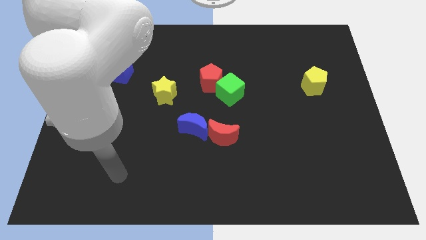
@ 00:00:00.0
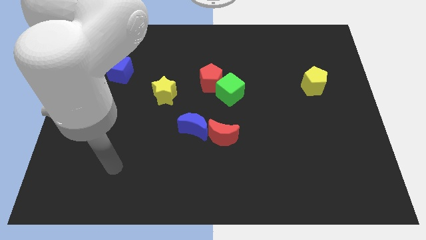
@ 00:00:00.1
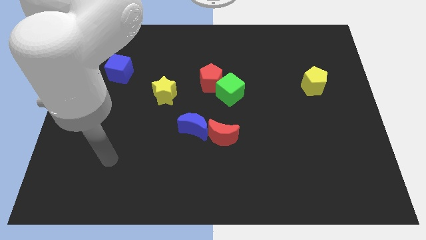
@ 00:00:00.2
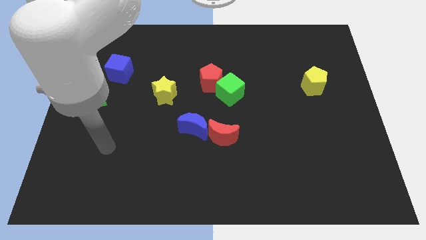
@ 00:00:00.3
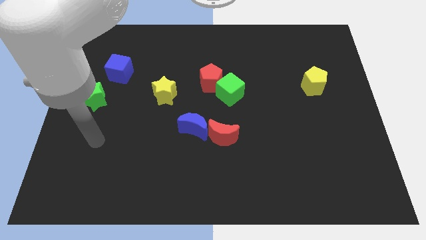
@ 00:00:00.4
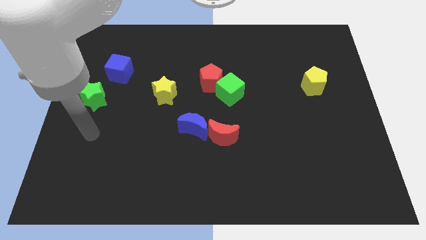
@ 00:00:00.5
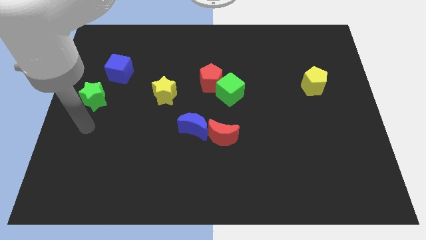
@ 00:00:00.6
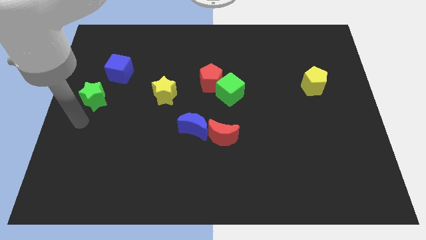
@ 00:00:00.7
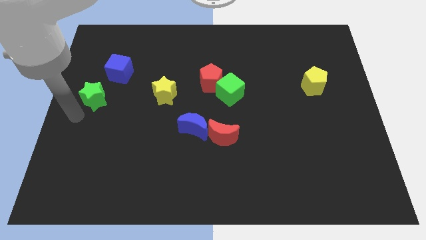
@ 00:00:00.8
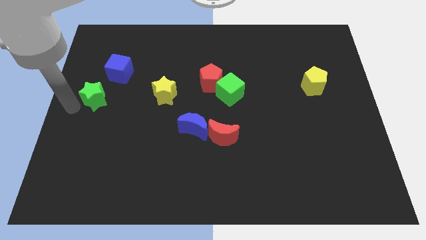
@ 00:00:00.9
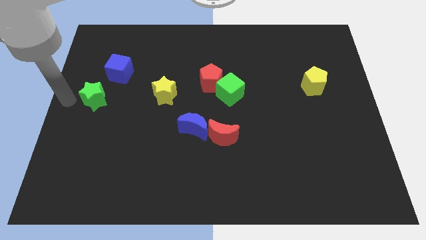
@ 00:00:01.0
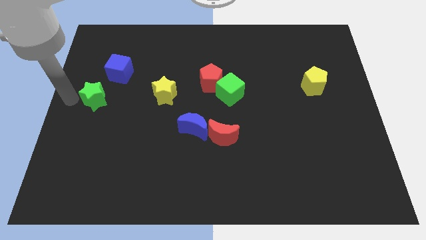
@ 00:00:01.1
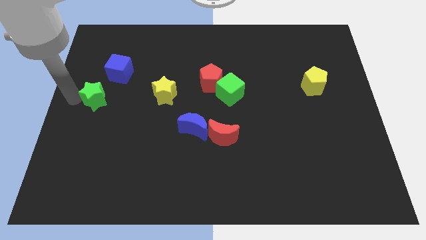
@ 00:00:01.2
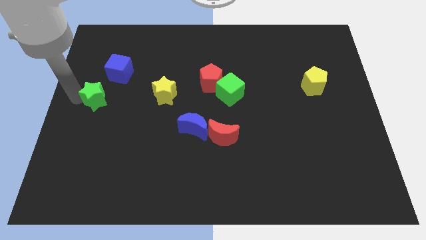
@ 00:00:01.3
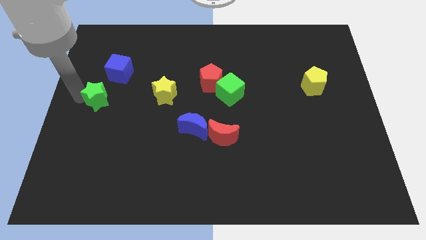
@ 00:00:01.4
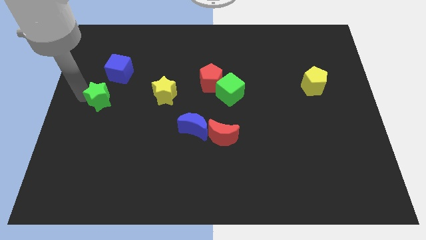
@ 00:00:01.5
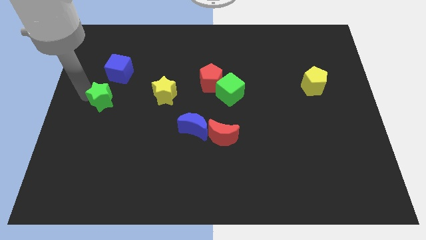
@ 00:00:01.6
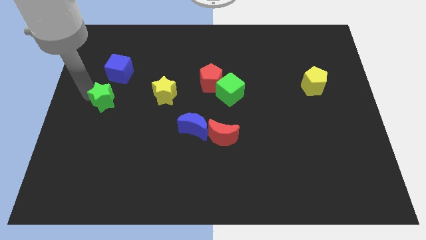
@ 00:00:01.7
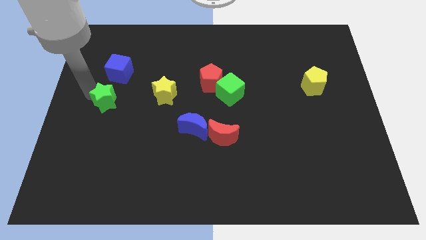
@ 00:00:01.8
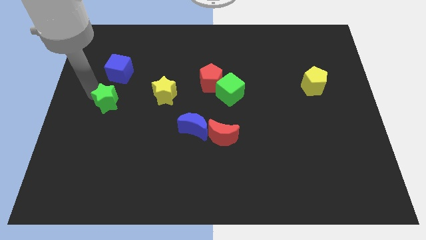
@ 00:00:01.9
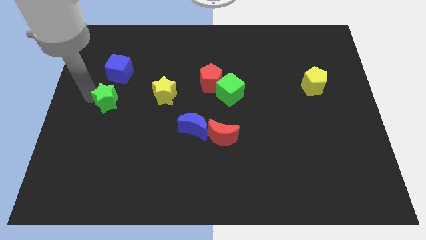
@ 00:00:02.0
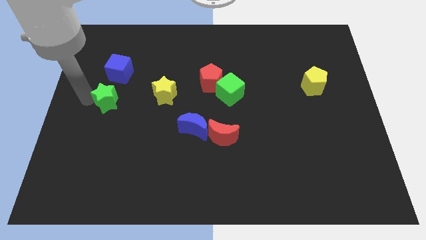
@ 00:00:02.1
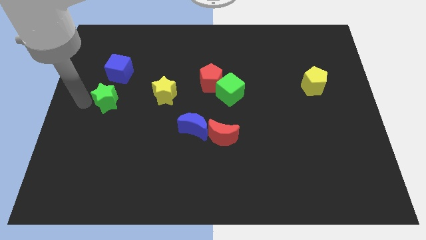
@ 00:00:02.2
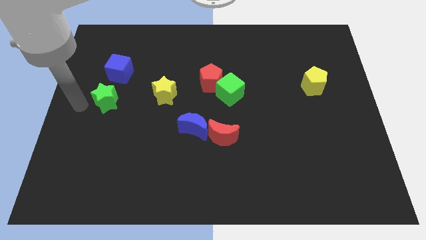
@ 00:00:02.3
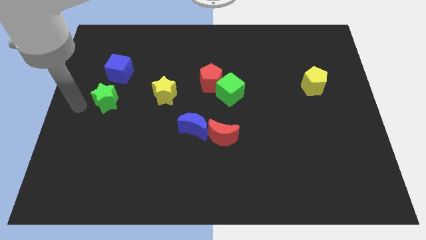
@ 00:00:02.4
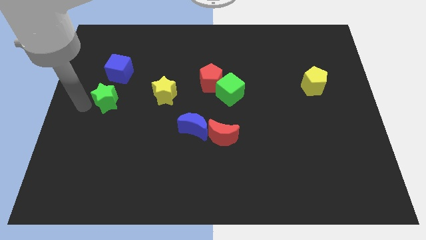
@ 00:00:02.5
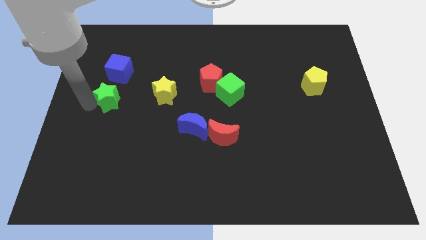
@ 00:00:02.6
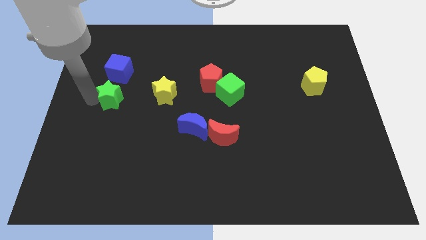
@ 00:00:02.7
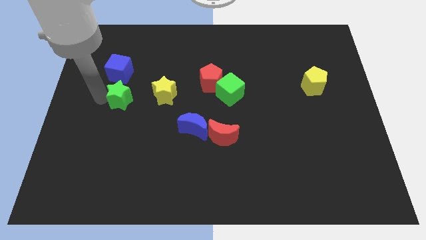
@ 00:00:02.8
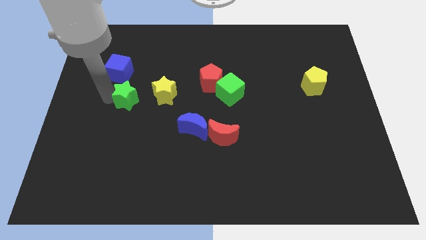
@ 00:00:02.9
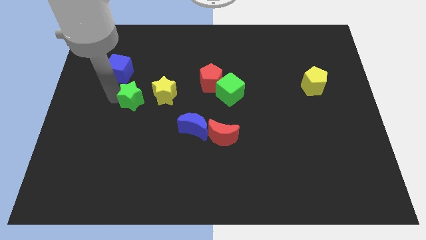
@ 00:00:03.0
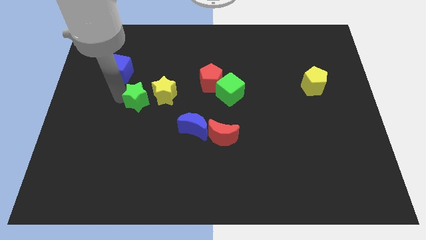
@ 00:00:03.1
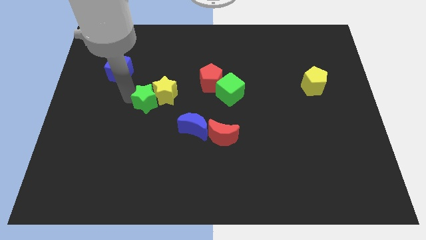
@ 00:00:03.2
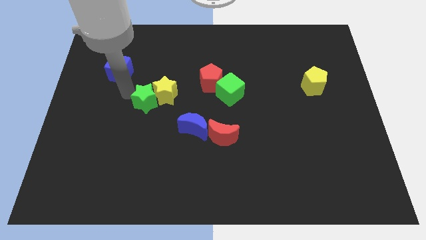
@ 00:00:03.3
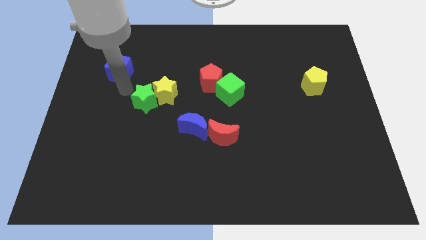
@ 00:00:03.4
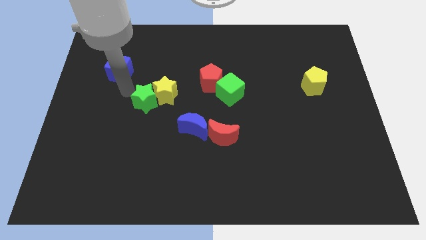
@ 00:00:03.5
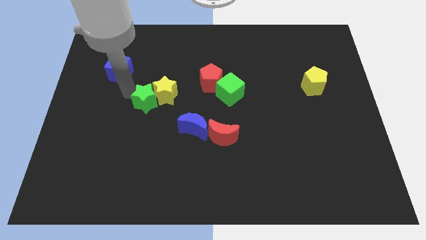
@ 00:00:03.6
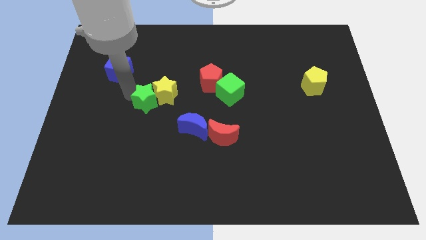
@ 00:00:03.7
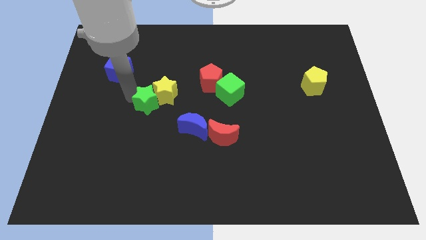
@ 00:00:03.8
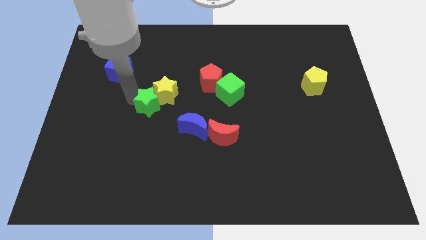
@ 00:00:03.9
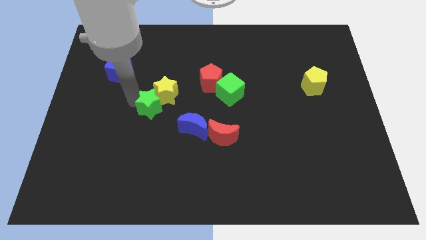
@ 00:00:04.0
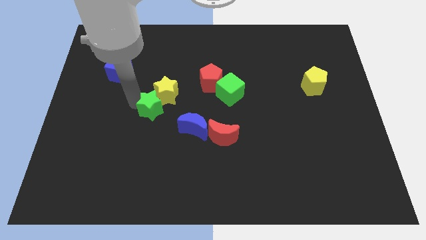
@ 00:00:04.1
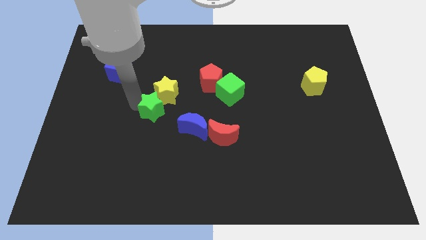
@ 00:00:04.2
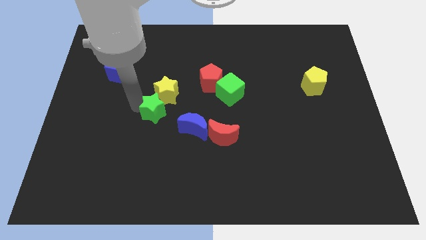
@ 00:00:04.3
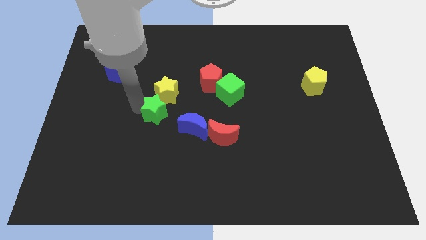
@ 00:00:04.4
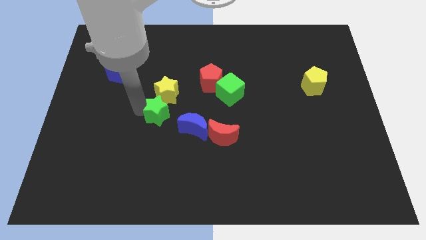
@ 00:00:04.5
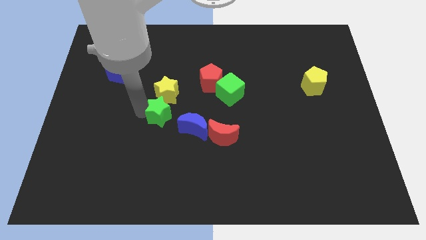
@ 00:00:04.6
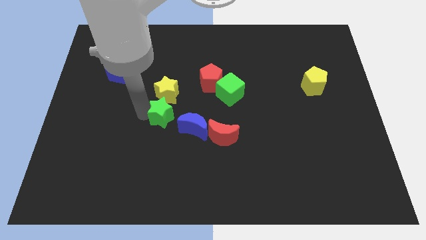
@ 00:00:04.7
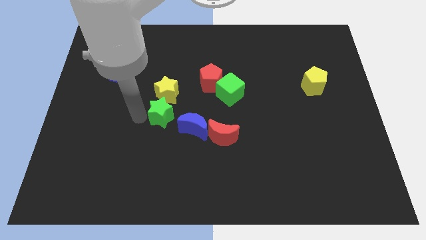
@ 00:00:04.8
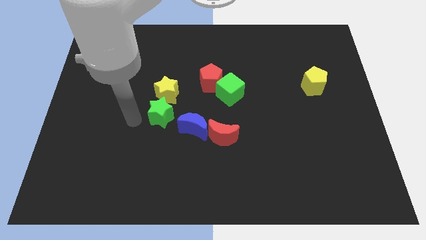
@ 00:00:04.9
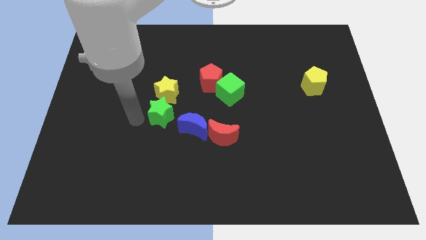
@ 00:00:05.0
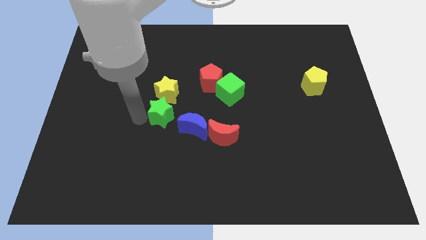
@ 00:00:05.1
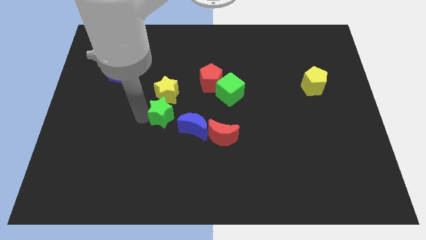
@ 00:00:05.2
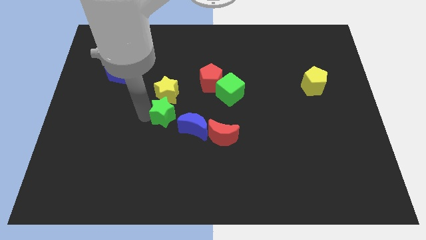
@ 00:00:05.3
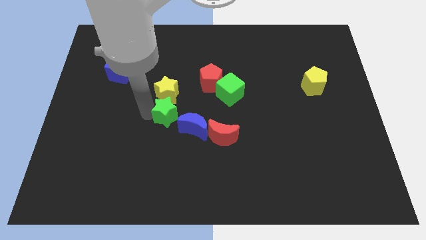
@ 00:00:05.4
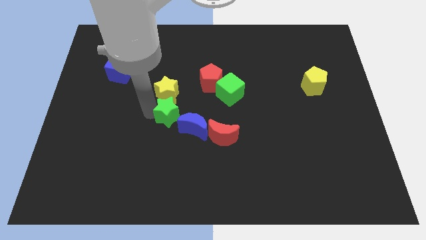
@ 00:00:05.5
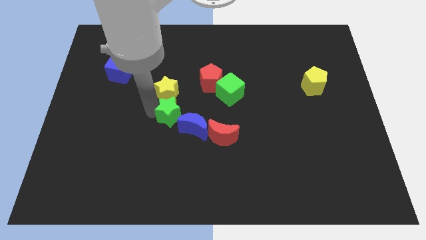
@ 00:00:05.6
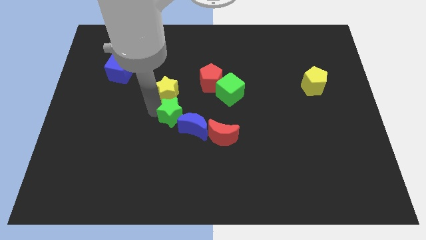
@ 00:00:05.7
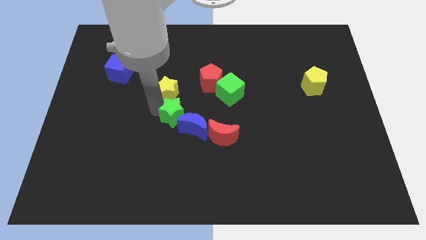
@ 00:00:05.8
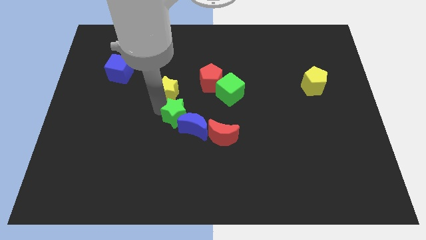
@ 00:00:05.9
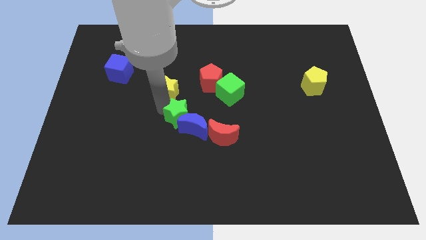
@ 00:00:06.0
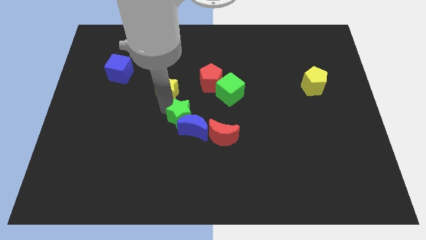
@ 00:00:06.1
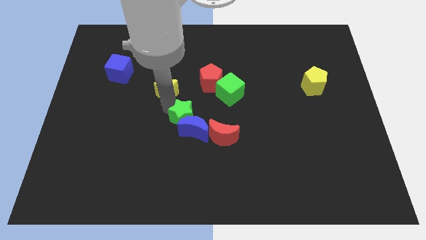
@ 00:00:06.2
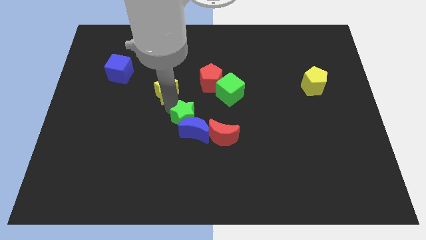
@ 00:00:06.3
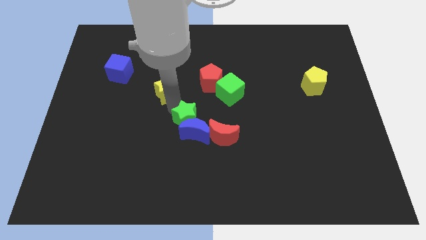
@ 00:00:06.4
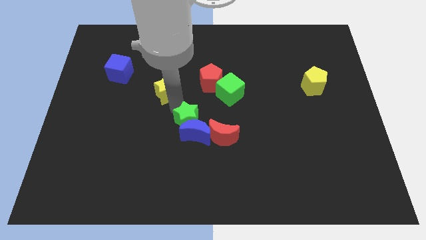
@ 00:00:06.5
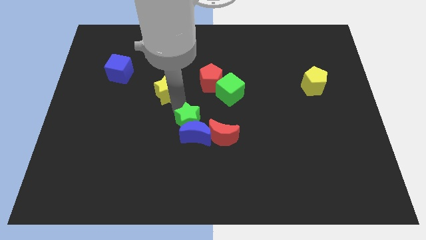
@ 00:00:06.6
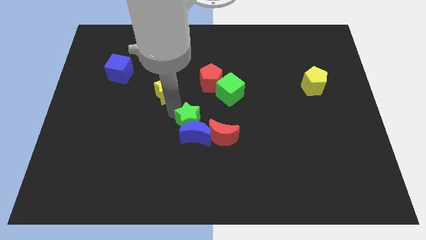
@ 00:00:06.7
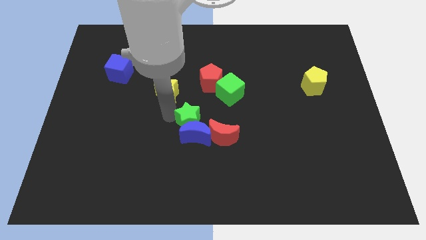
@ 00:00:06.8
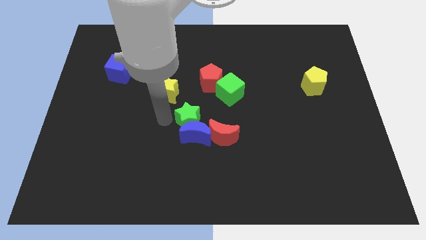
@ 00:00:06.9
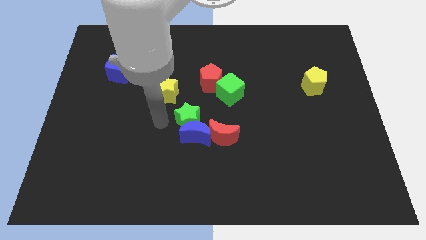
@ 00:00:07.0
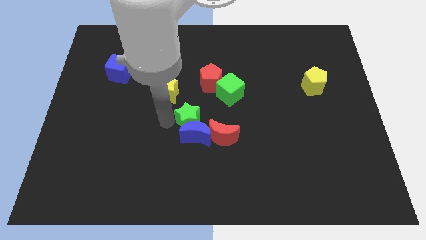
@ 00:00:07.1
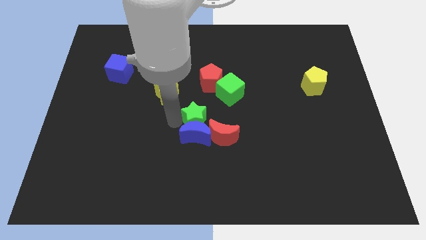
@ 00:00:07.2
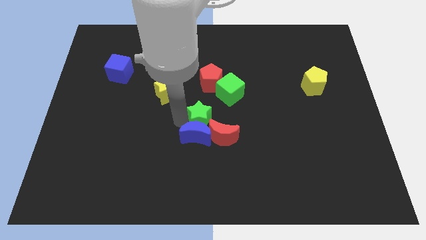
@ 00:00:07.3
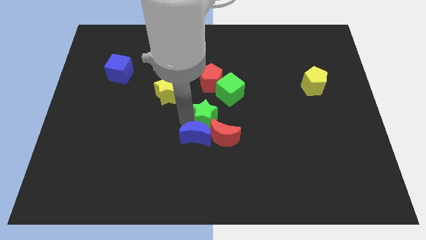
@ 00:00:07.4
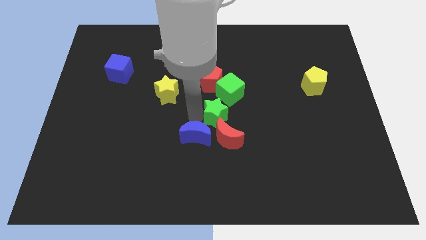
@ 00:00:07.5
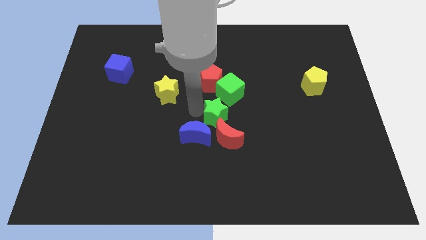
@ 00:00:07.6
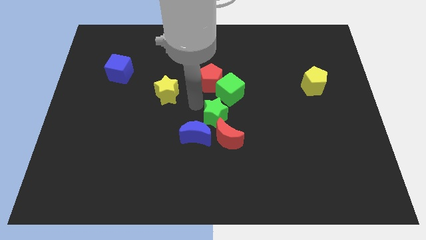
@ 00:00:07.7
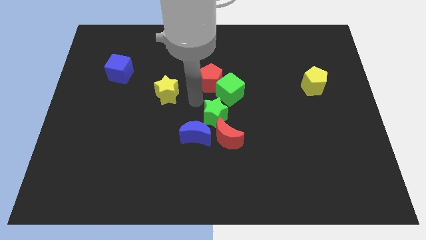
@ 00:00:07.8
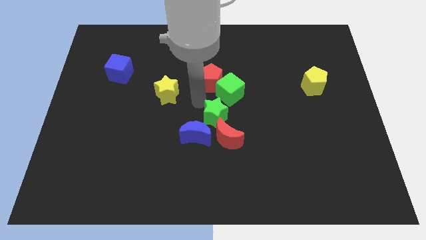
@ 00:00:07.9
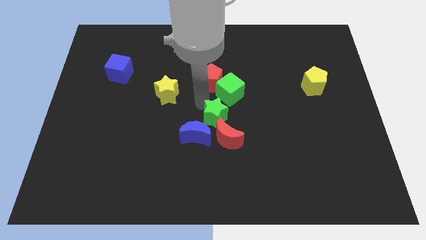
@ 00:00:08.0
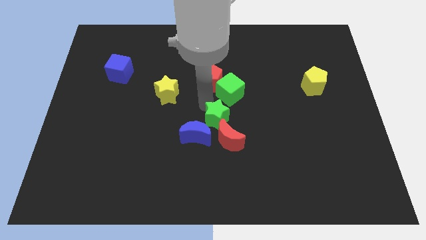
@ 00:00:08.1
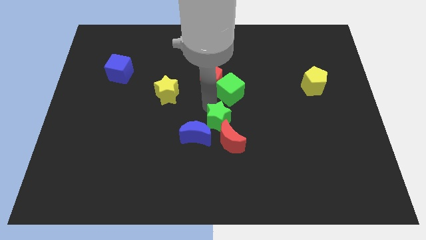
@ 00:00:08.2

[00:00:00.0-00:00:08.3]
slide the green star just right of the blue moon
